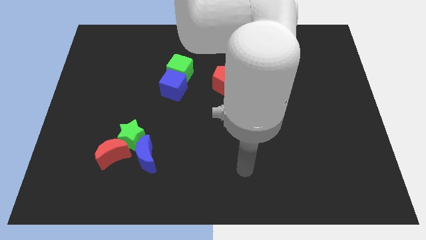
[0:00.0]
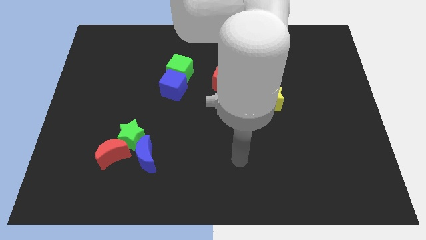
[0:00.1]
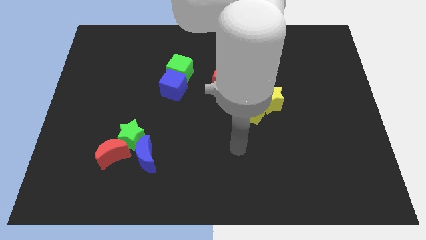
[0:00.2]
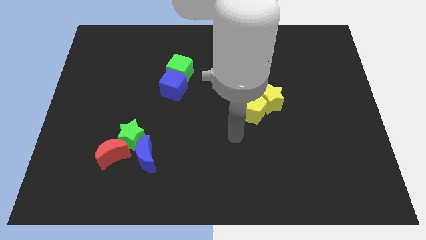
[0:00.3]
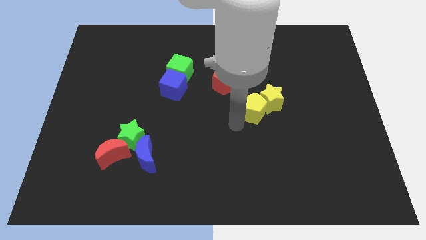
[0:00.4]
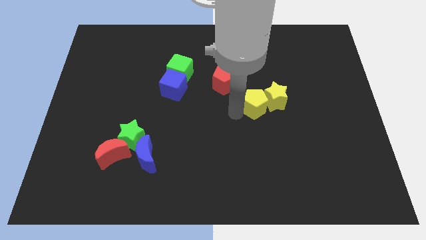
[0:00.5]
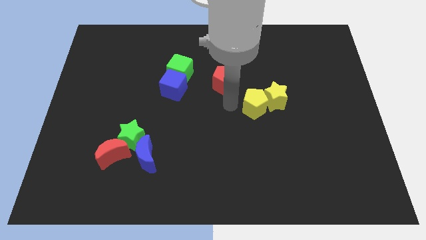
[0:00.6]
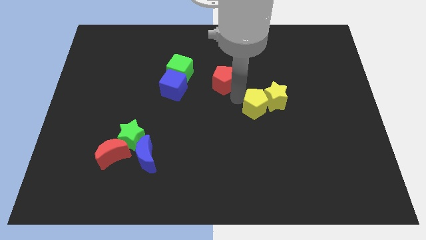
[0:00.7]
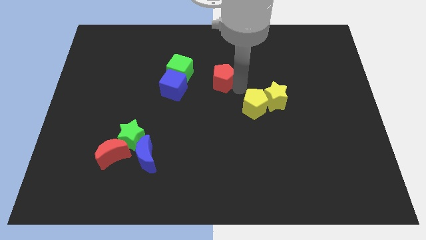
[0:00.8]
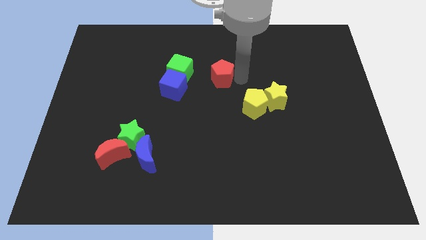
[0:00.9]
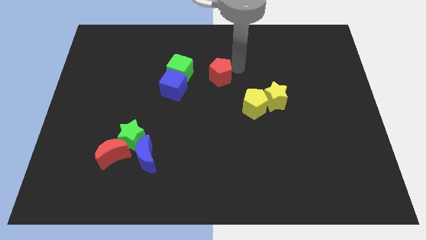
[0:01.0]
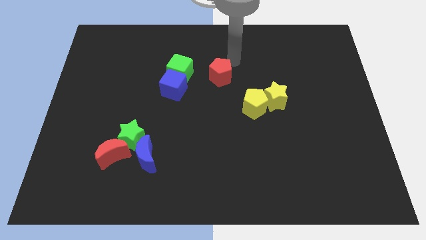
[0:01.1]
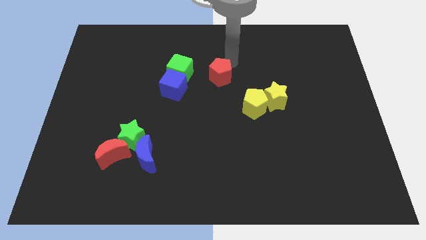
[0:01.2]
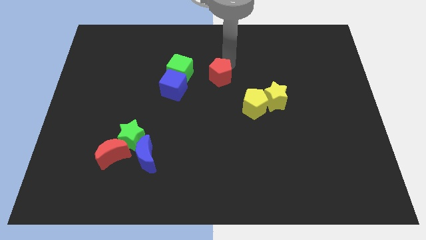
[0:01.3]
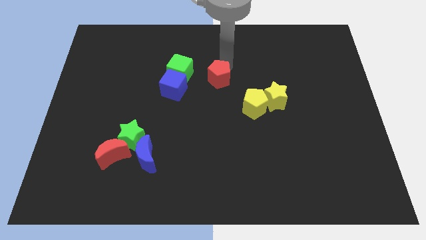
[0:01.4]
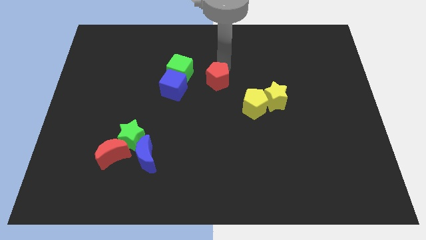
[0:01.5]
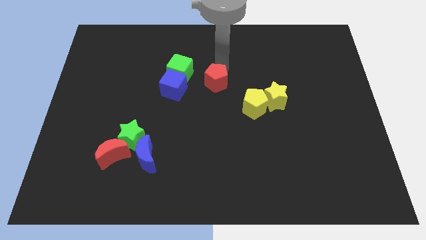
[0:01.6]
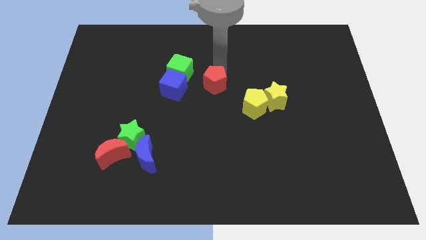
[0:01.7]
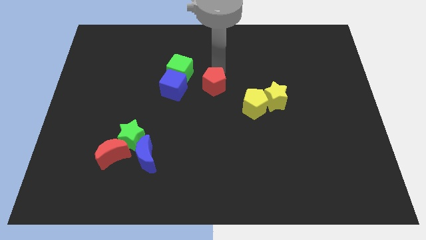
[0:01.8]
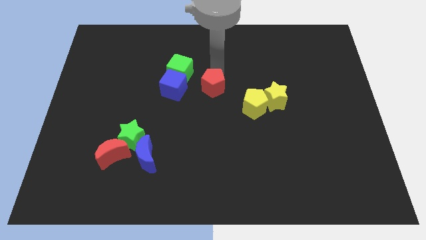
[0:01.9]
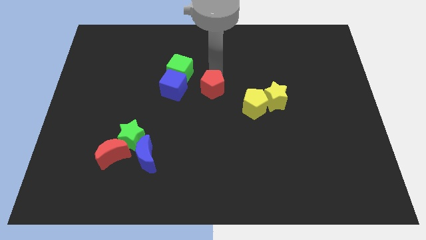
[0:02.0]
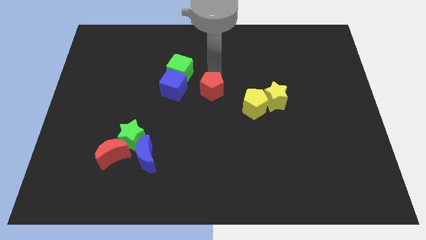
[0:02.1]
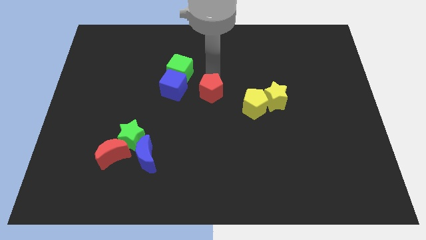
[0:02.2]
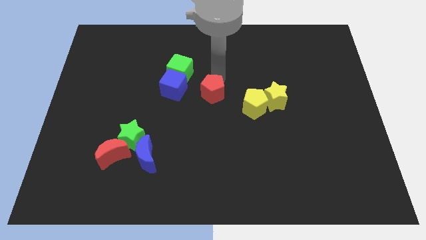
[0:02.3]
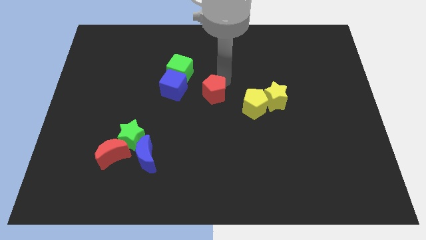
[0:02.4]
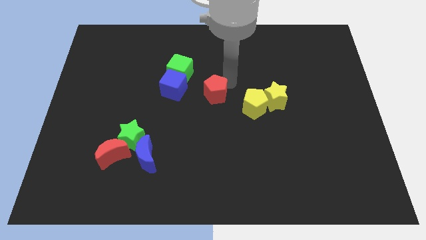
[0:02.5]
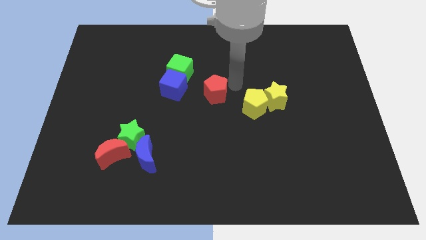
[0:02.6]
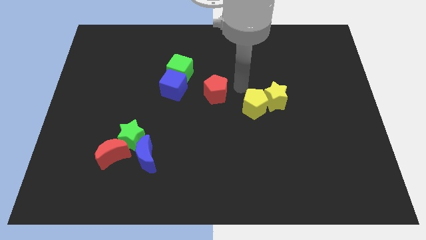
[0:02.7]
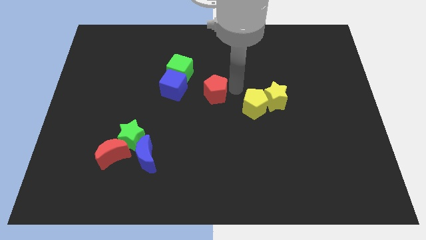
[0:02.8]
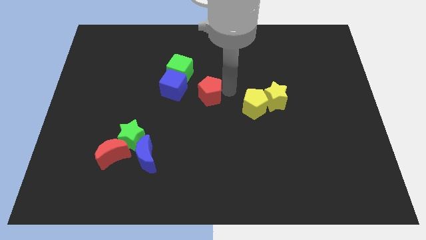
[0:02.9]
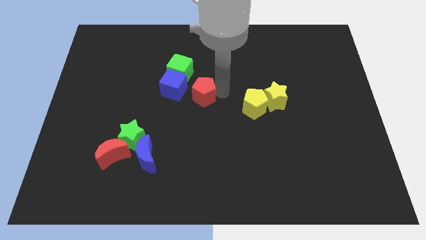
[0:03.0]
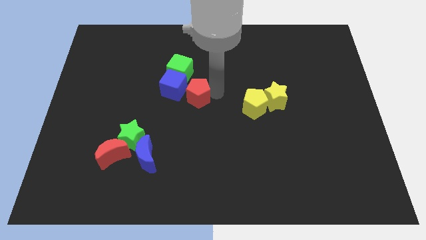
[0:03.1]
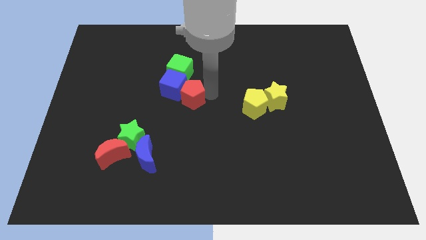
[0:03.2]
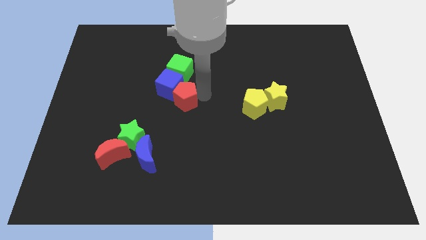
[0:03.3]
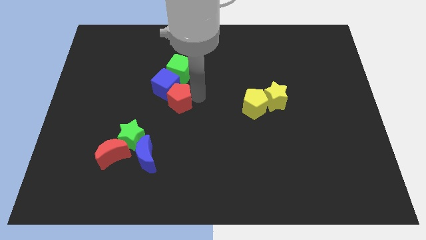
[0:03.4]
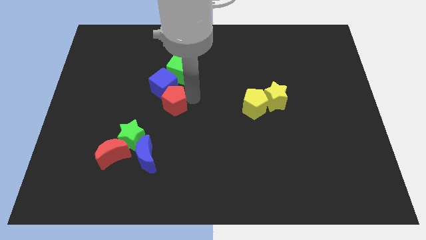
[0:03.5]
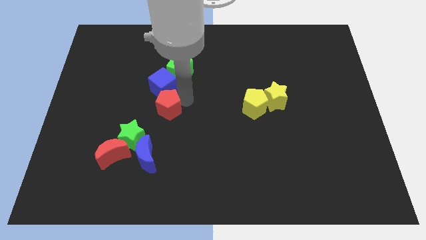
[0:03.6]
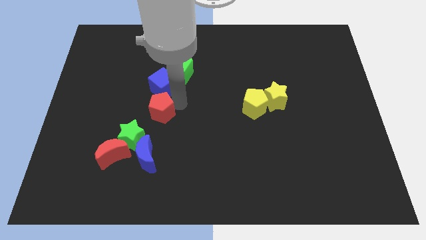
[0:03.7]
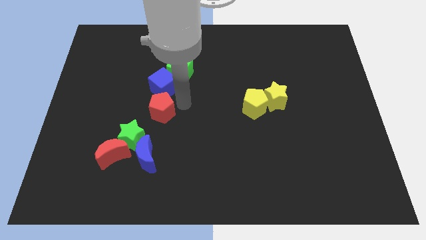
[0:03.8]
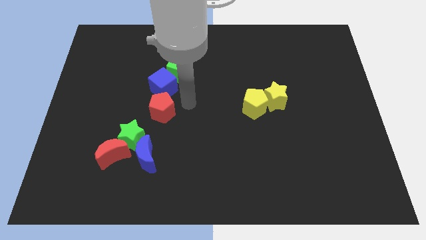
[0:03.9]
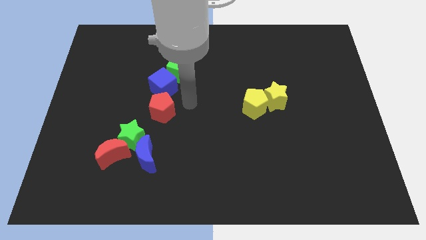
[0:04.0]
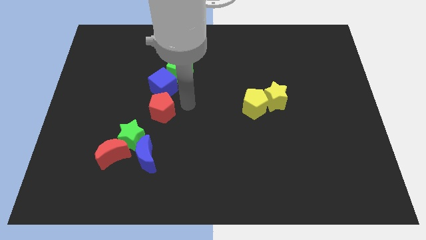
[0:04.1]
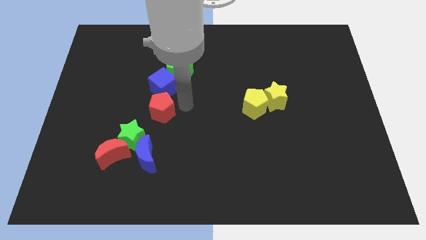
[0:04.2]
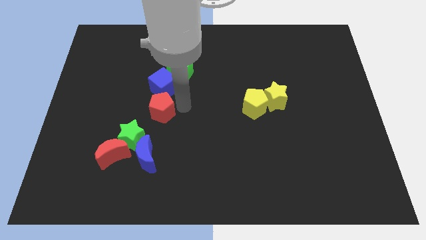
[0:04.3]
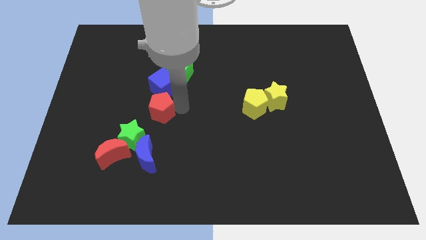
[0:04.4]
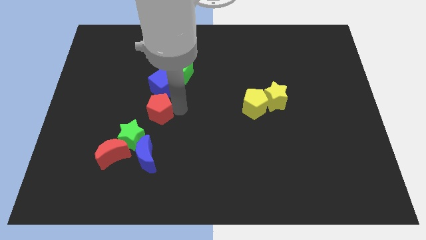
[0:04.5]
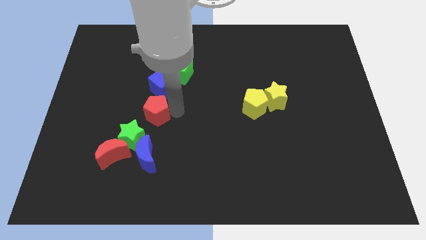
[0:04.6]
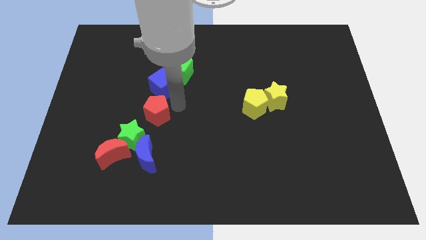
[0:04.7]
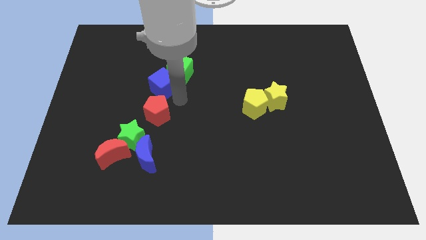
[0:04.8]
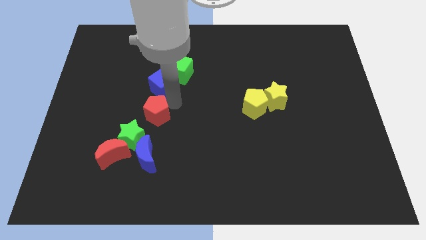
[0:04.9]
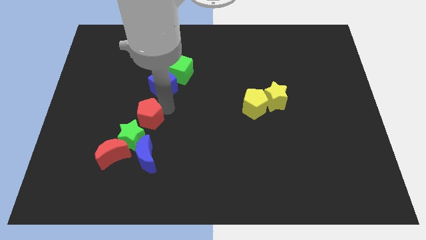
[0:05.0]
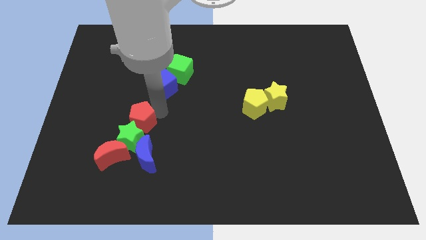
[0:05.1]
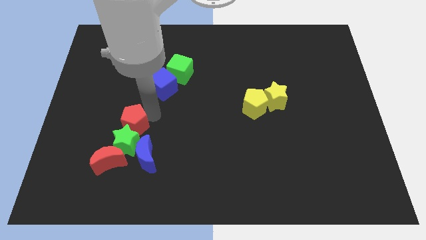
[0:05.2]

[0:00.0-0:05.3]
put the red pentagon to the top left of the blue moon

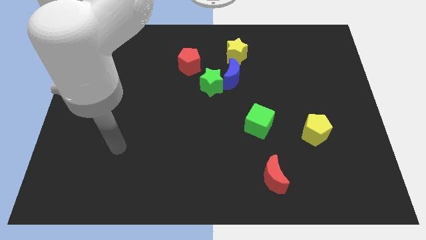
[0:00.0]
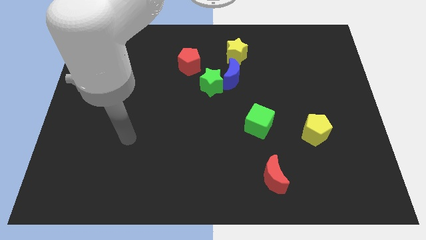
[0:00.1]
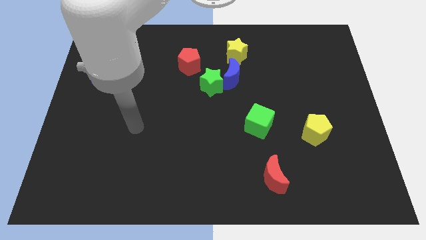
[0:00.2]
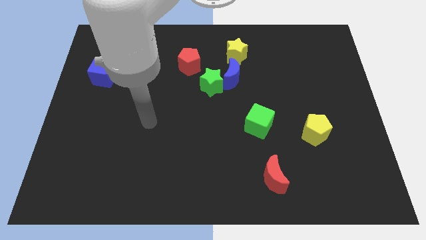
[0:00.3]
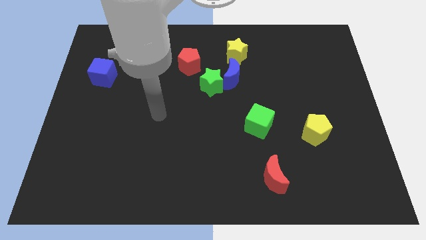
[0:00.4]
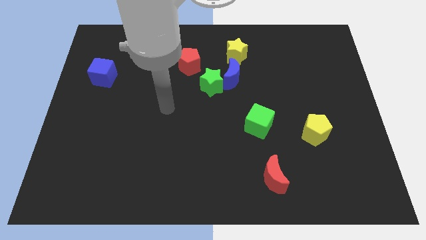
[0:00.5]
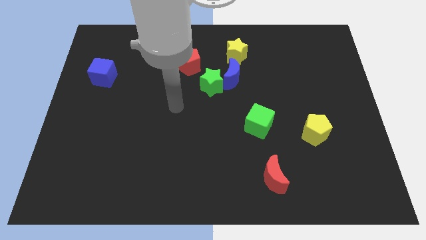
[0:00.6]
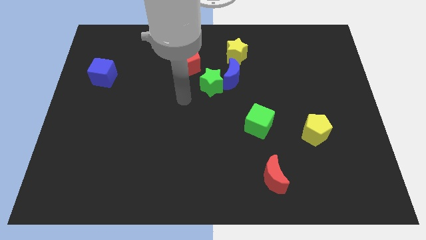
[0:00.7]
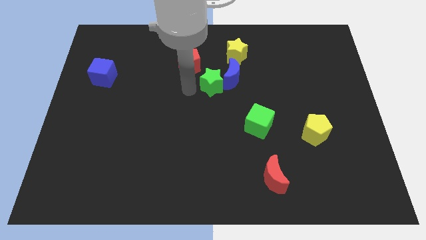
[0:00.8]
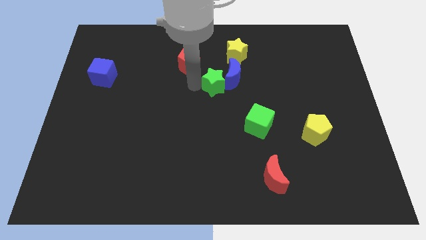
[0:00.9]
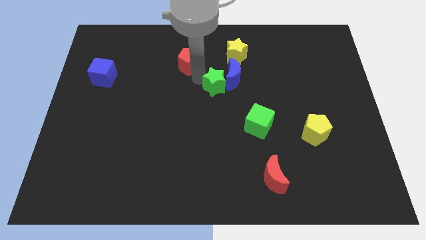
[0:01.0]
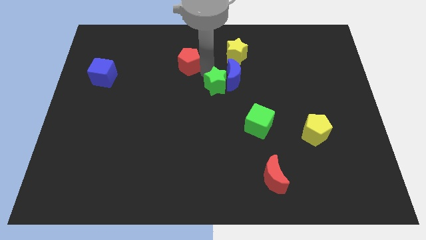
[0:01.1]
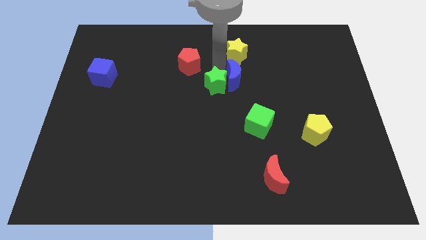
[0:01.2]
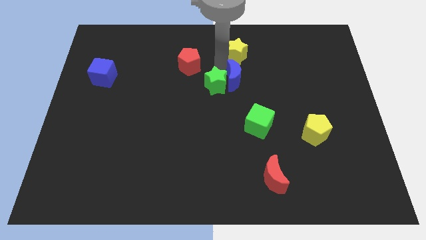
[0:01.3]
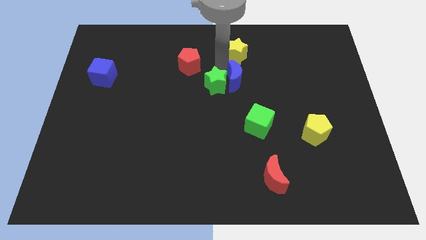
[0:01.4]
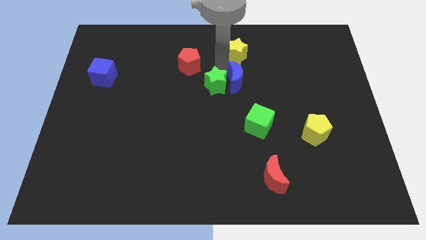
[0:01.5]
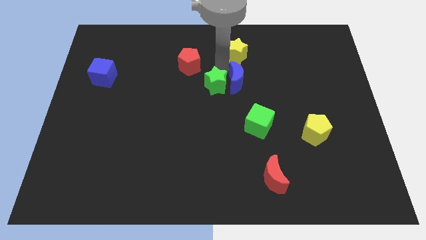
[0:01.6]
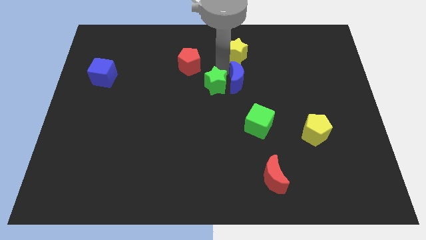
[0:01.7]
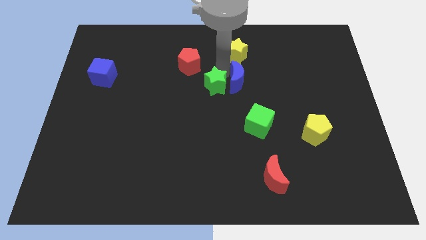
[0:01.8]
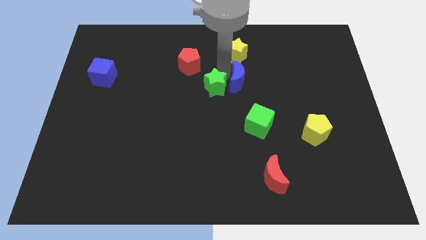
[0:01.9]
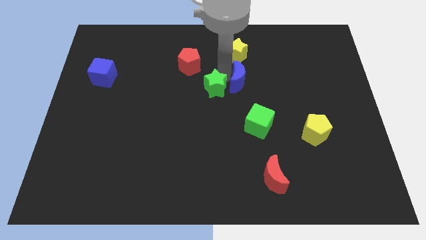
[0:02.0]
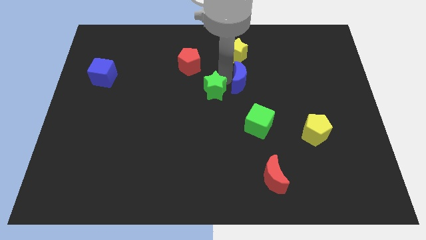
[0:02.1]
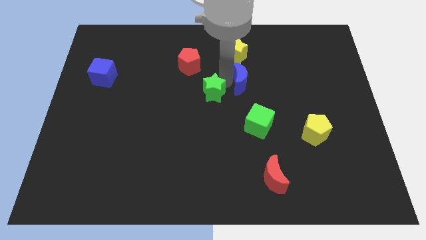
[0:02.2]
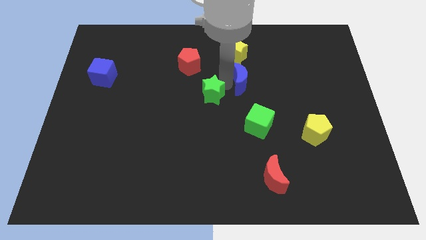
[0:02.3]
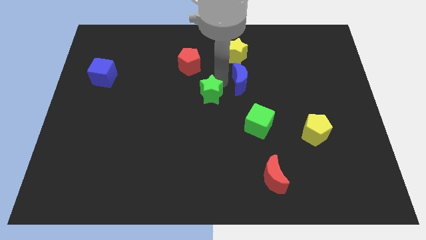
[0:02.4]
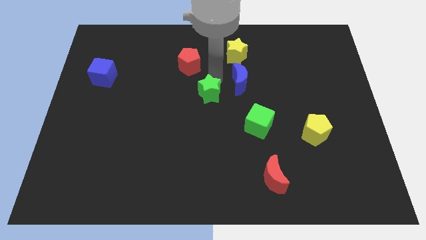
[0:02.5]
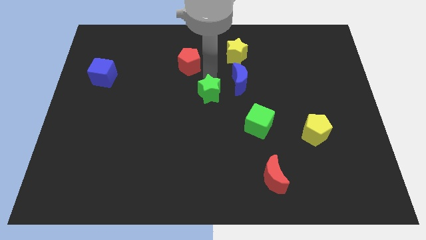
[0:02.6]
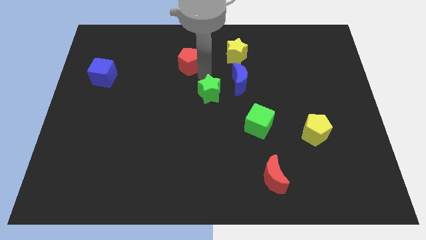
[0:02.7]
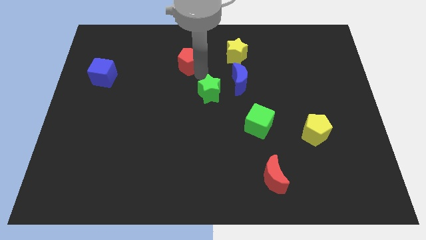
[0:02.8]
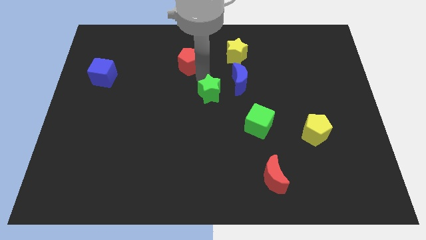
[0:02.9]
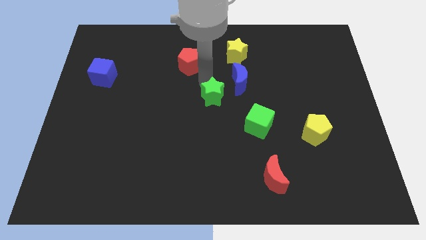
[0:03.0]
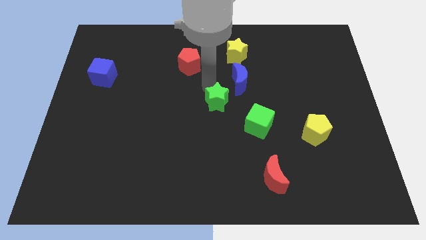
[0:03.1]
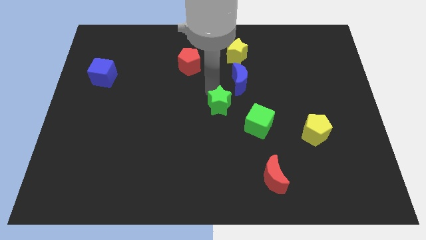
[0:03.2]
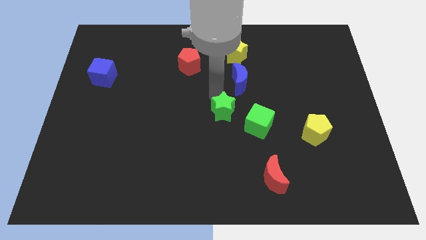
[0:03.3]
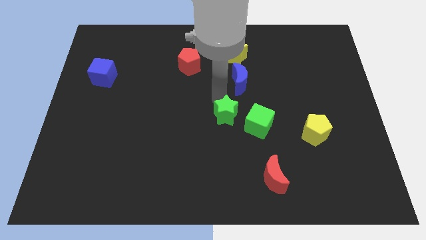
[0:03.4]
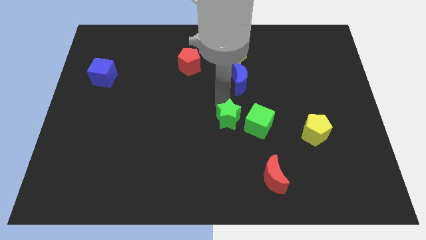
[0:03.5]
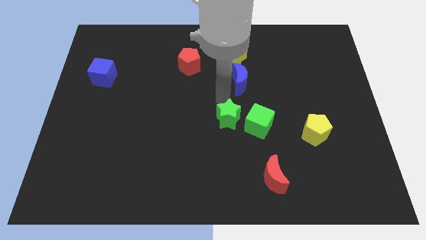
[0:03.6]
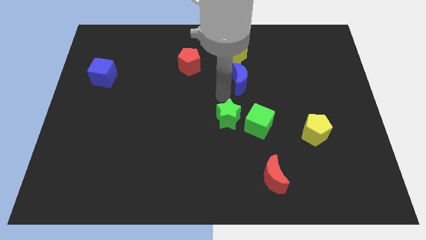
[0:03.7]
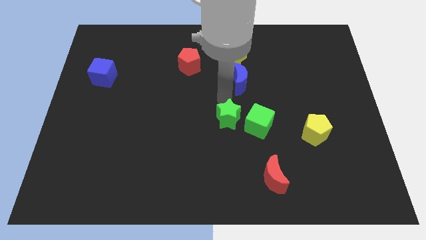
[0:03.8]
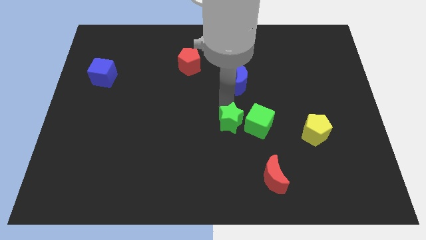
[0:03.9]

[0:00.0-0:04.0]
move the green star to the bottom left of the green cube
